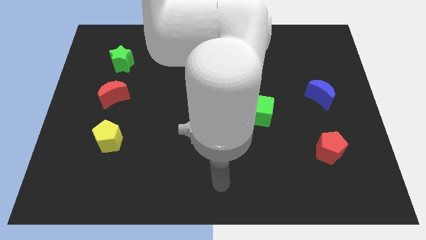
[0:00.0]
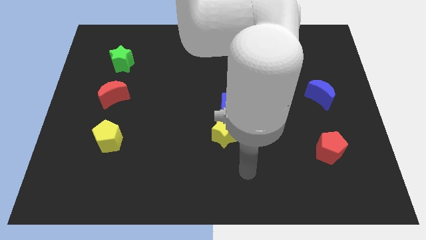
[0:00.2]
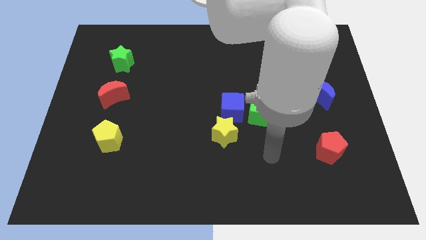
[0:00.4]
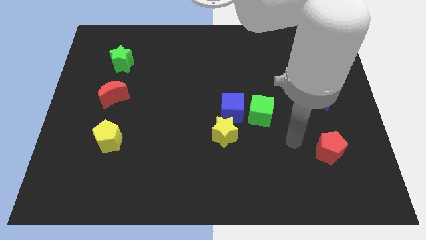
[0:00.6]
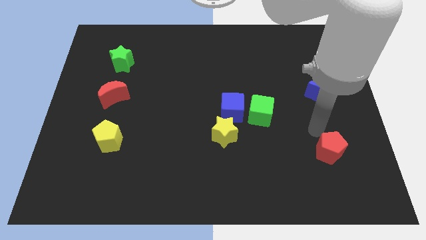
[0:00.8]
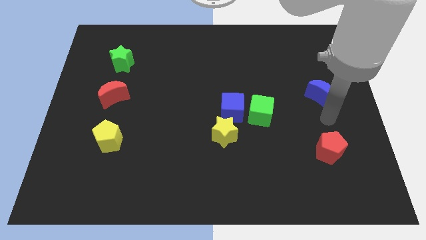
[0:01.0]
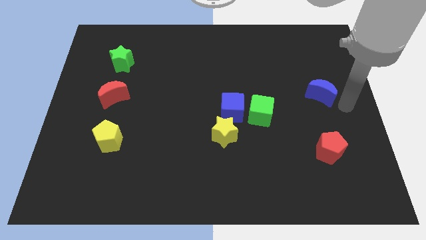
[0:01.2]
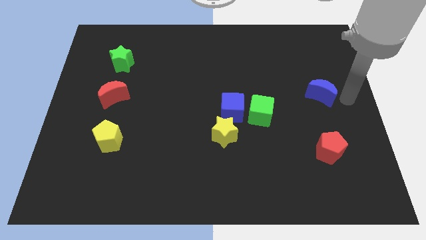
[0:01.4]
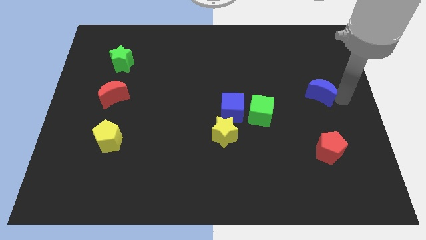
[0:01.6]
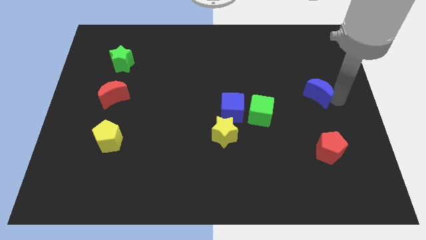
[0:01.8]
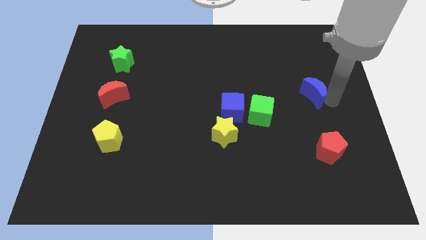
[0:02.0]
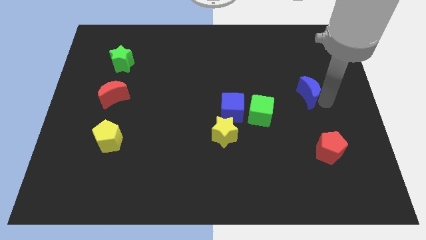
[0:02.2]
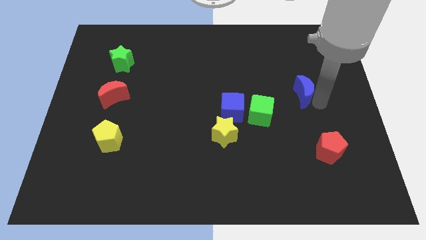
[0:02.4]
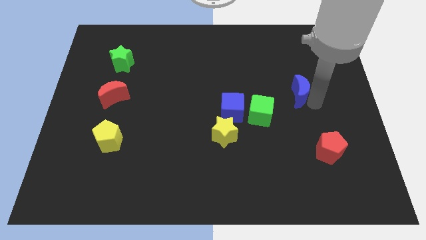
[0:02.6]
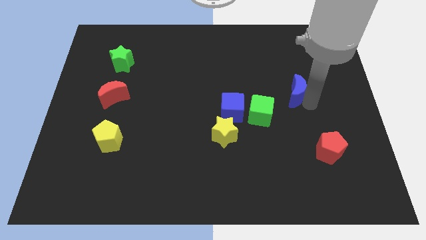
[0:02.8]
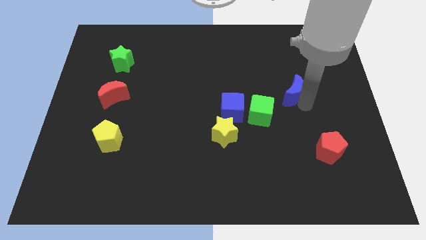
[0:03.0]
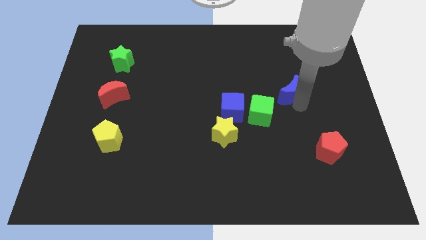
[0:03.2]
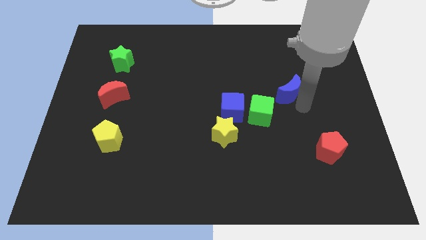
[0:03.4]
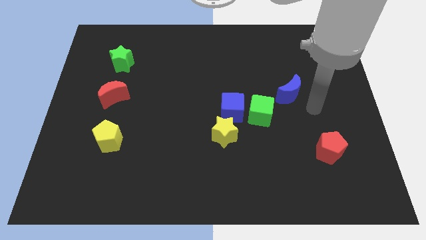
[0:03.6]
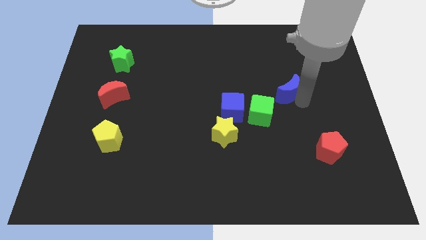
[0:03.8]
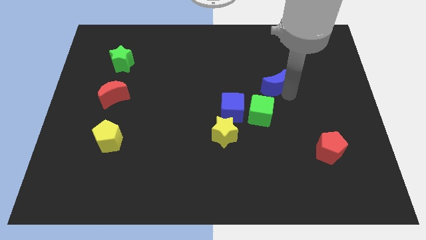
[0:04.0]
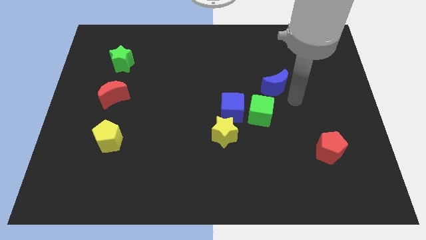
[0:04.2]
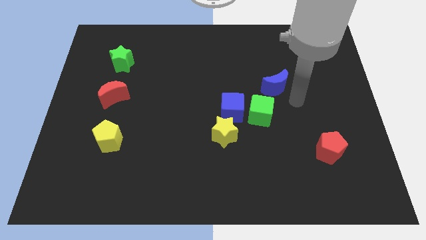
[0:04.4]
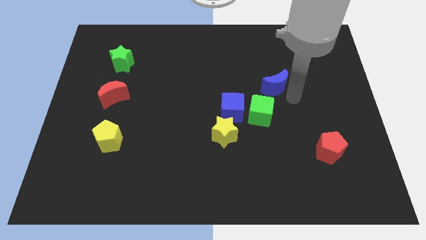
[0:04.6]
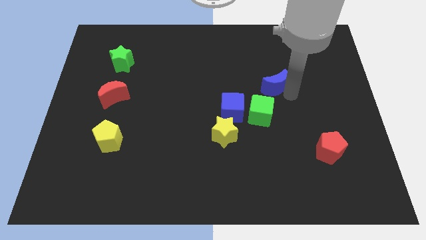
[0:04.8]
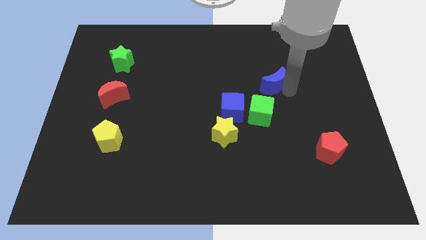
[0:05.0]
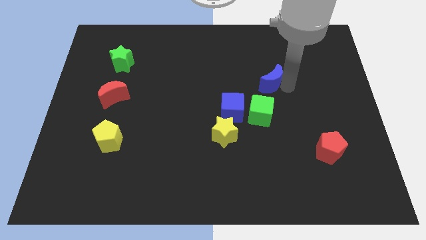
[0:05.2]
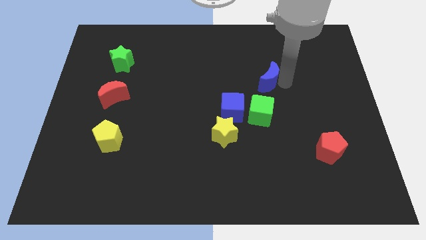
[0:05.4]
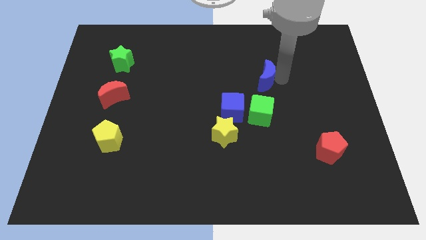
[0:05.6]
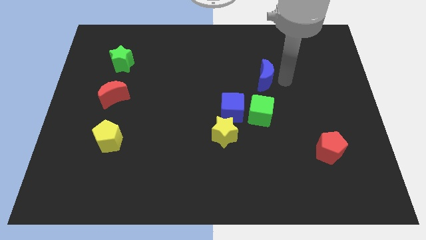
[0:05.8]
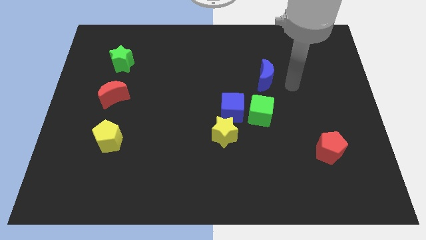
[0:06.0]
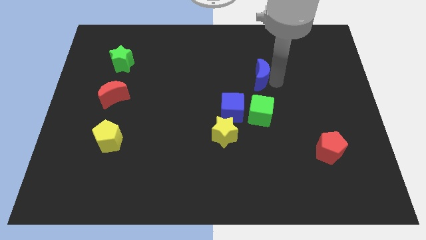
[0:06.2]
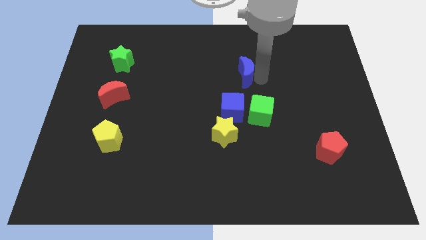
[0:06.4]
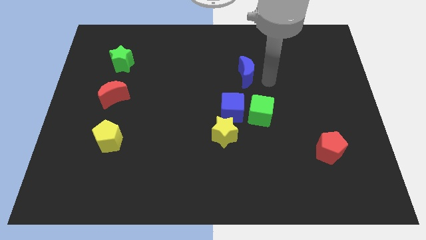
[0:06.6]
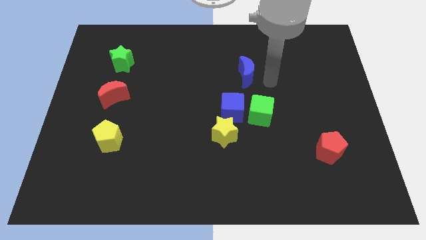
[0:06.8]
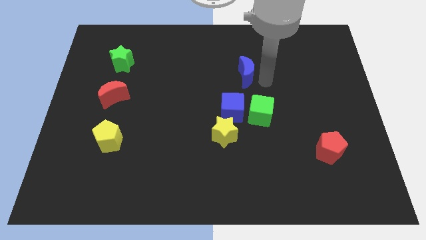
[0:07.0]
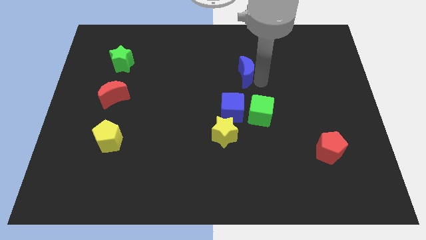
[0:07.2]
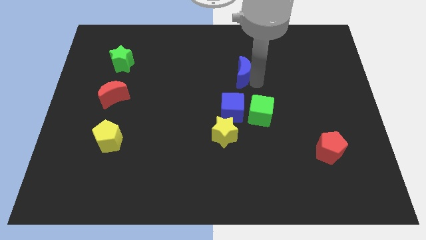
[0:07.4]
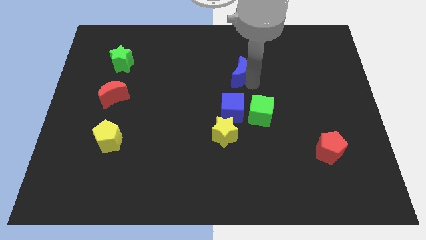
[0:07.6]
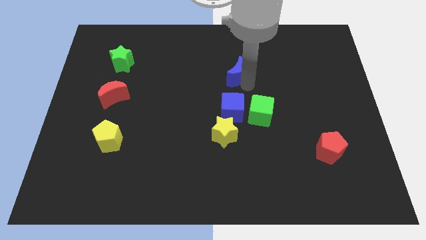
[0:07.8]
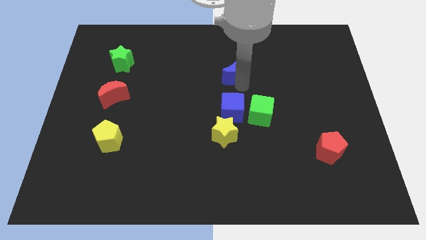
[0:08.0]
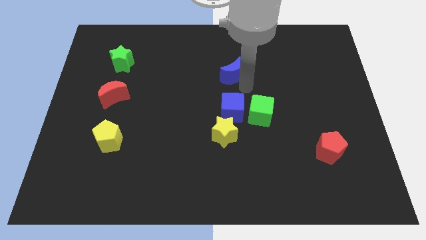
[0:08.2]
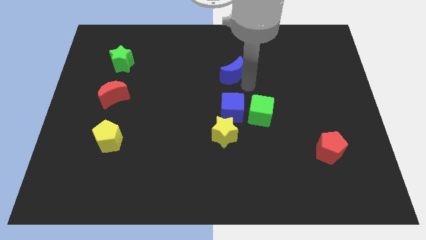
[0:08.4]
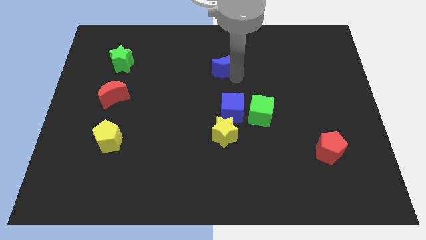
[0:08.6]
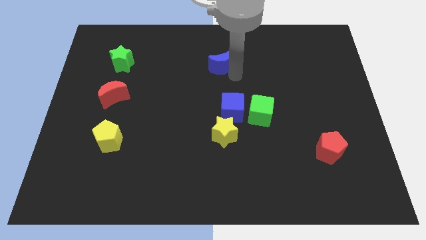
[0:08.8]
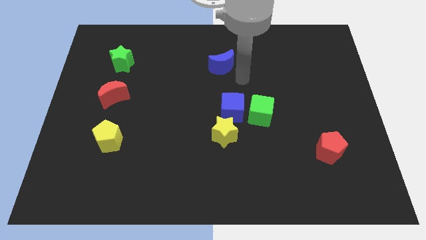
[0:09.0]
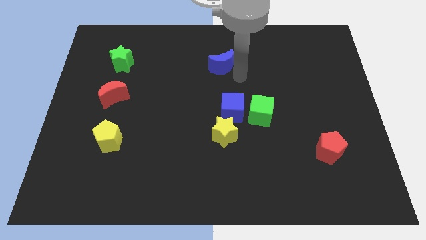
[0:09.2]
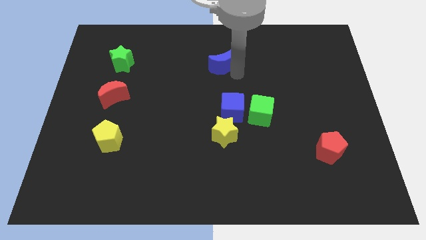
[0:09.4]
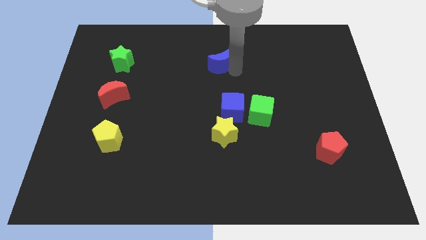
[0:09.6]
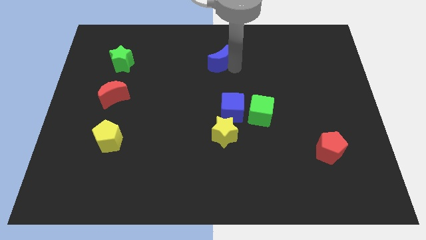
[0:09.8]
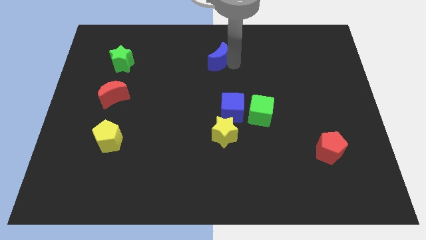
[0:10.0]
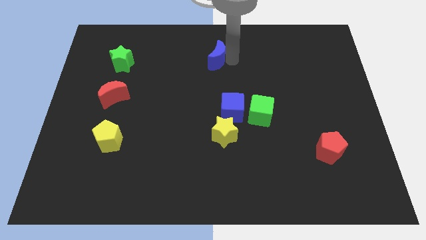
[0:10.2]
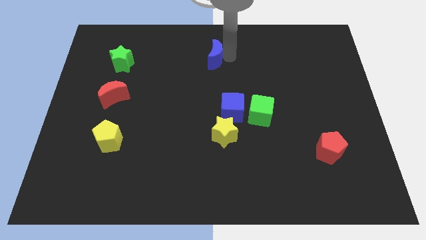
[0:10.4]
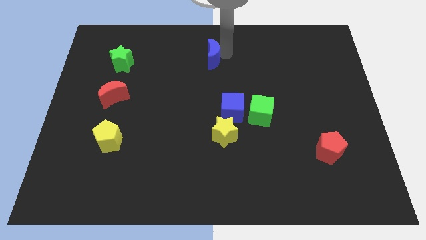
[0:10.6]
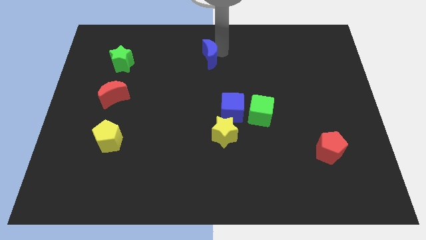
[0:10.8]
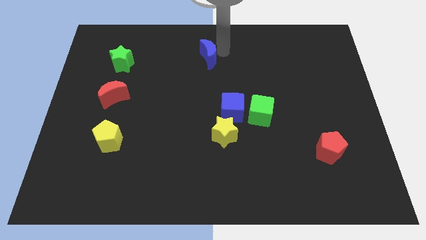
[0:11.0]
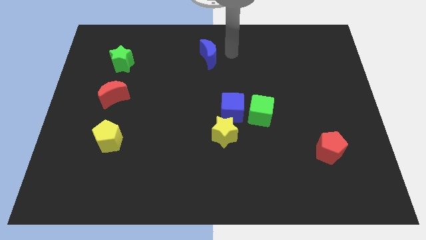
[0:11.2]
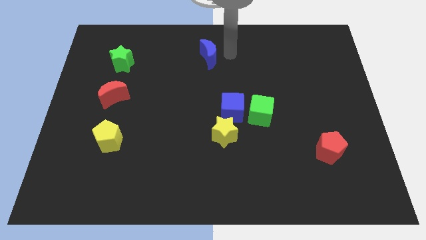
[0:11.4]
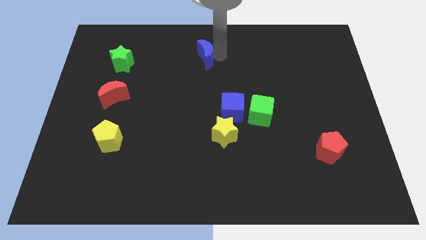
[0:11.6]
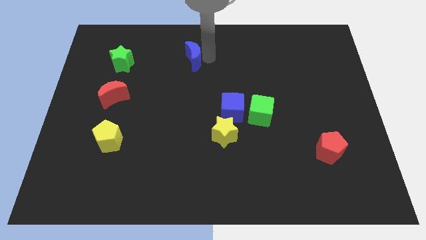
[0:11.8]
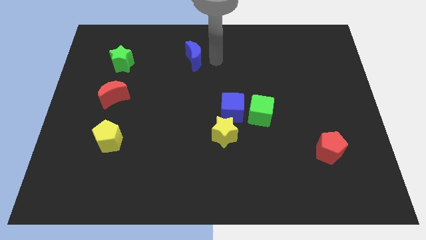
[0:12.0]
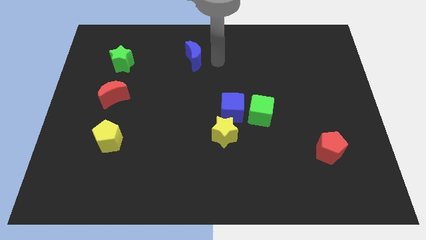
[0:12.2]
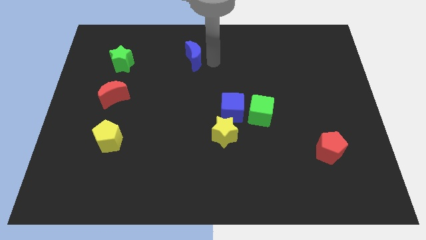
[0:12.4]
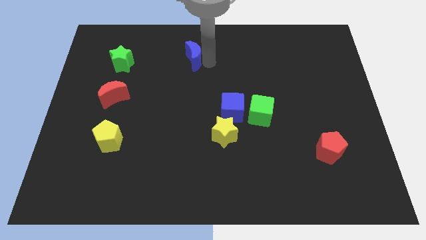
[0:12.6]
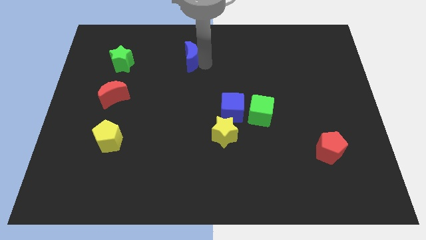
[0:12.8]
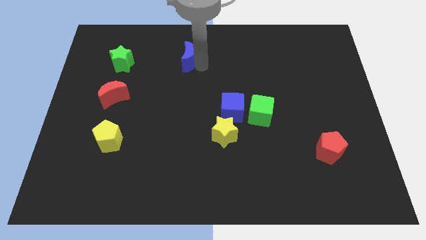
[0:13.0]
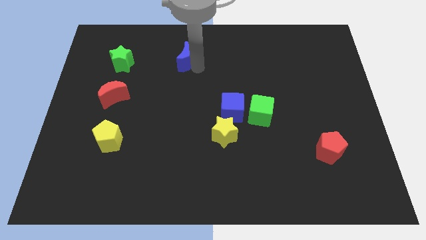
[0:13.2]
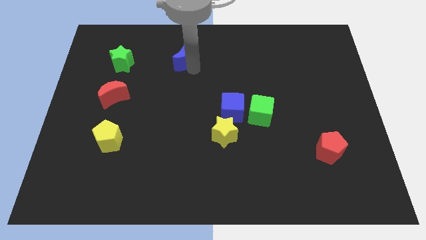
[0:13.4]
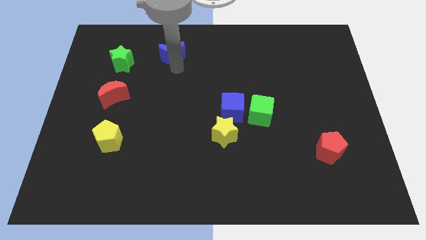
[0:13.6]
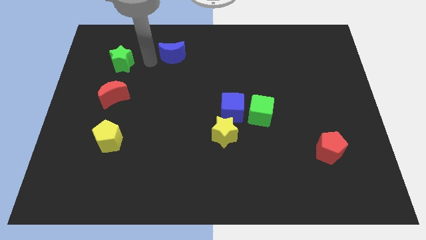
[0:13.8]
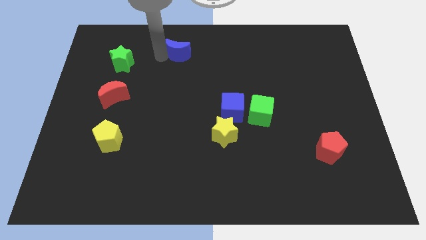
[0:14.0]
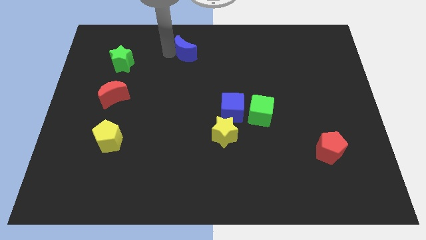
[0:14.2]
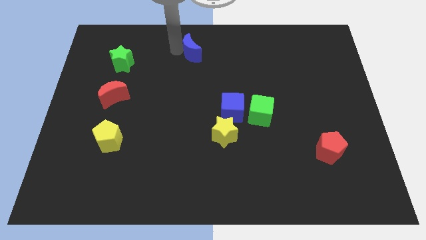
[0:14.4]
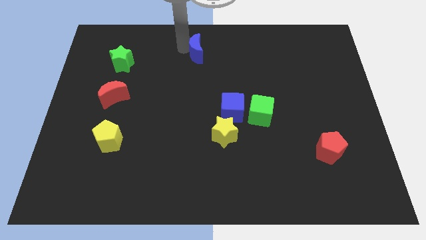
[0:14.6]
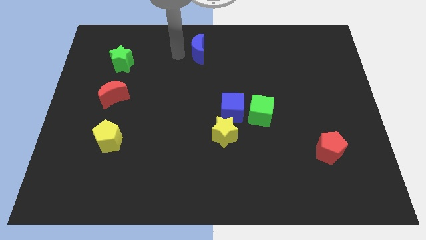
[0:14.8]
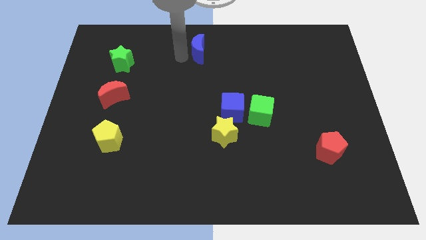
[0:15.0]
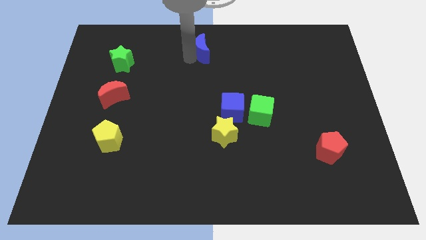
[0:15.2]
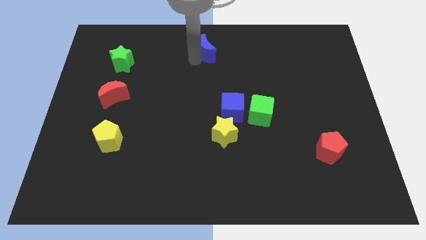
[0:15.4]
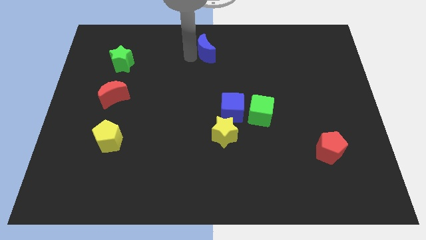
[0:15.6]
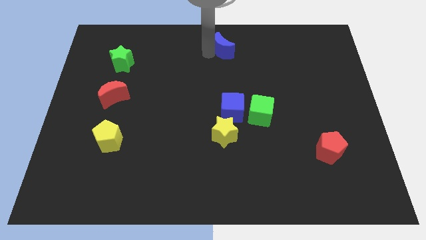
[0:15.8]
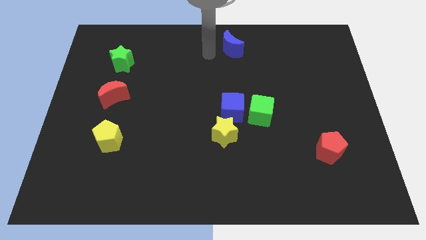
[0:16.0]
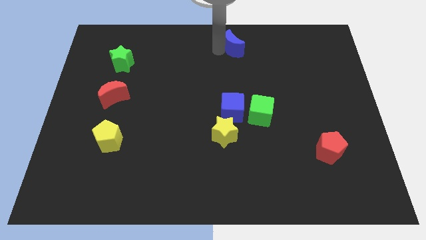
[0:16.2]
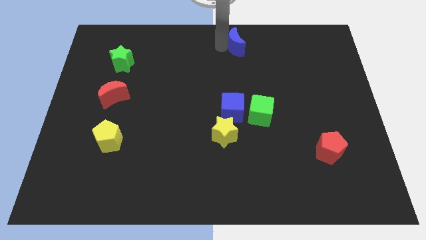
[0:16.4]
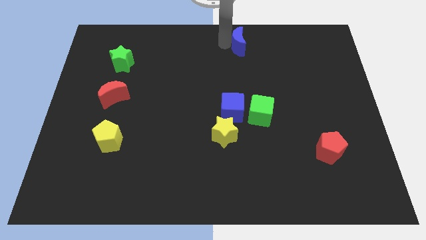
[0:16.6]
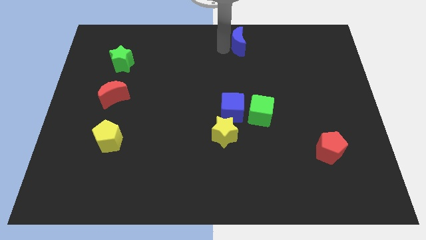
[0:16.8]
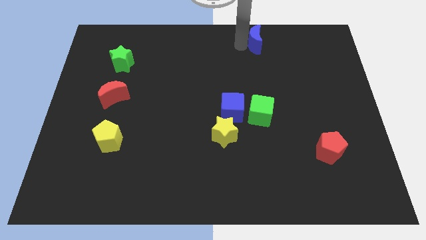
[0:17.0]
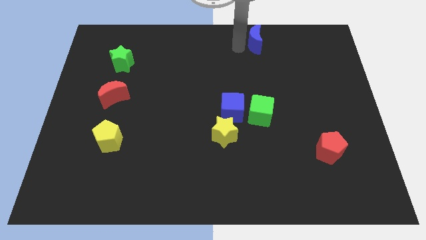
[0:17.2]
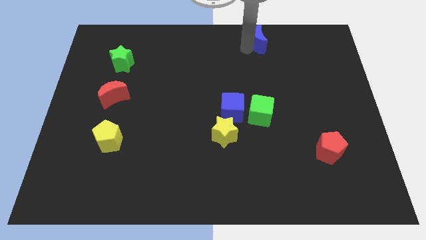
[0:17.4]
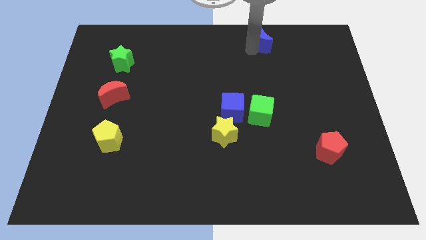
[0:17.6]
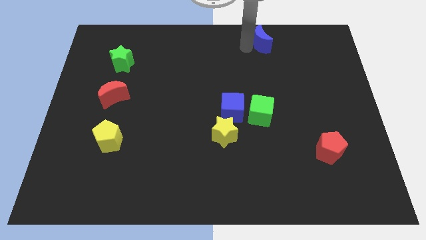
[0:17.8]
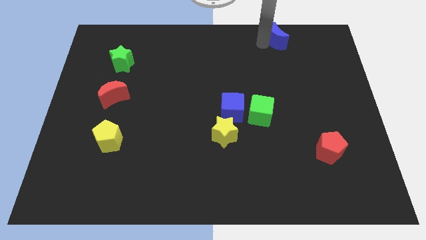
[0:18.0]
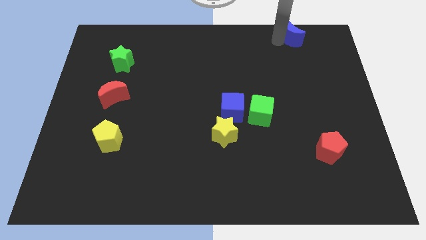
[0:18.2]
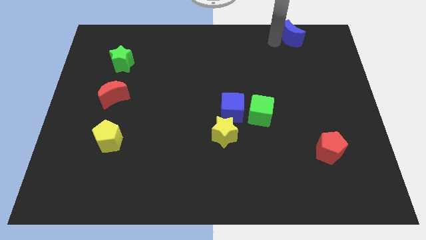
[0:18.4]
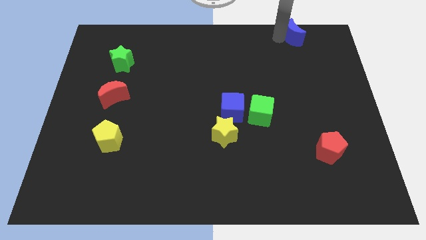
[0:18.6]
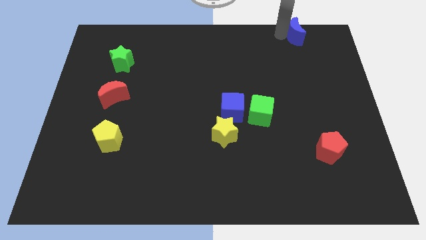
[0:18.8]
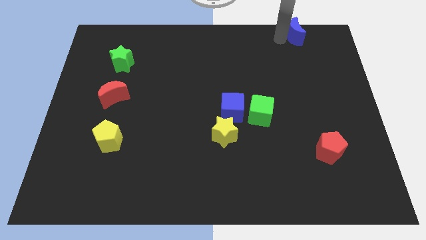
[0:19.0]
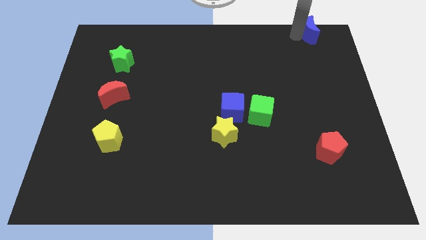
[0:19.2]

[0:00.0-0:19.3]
slide the blue moon to the upper right corner
